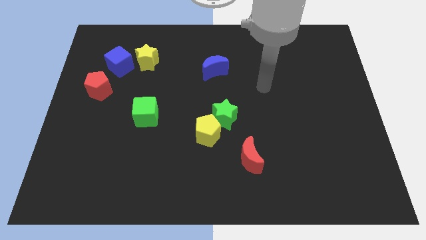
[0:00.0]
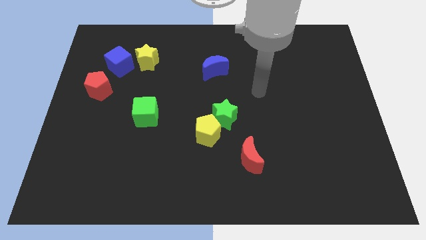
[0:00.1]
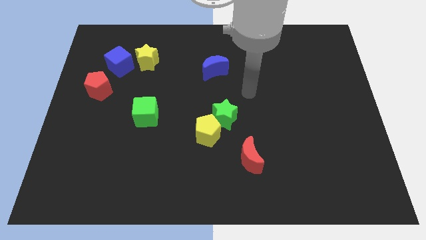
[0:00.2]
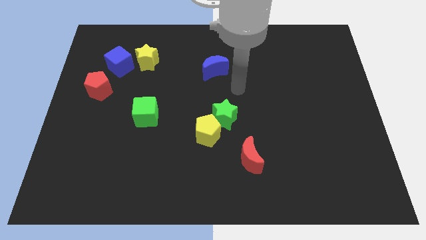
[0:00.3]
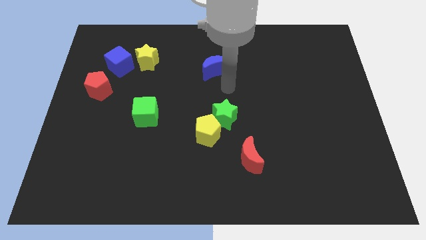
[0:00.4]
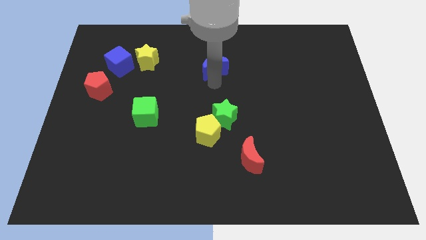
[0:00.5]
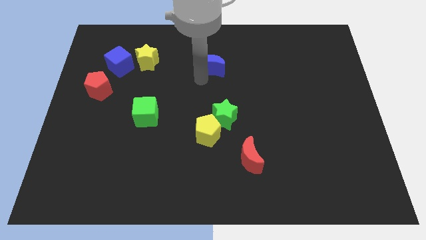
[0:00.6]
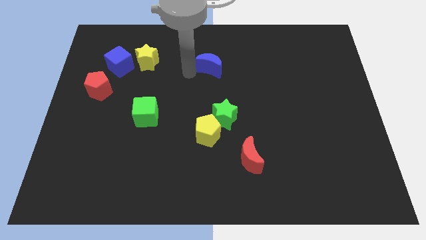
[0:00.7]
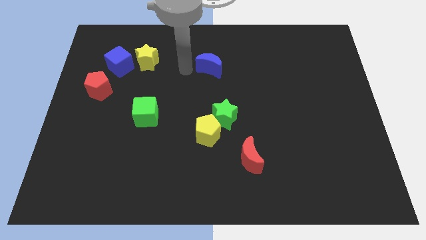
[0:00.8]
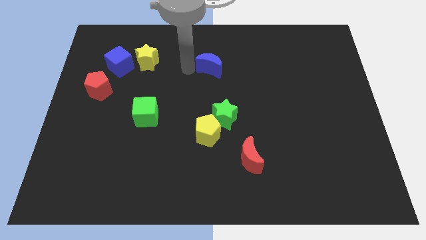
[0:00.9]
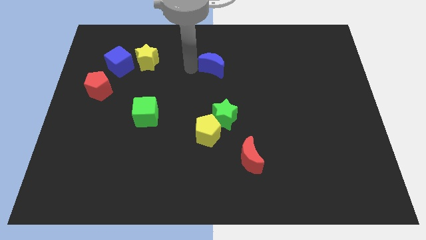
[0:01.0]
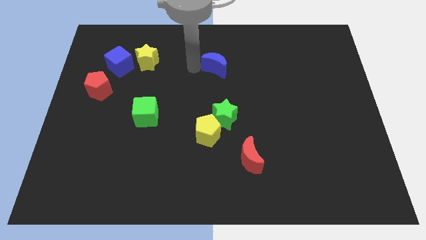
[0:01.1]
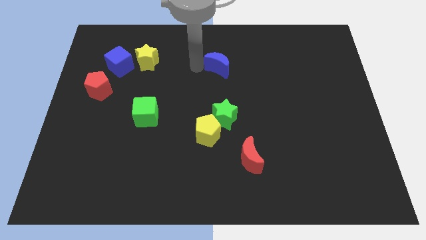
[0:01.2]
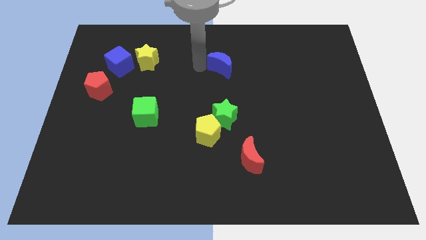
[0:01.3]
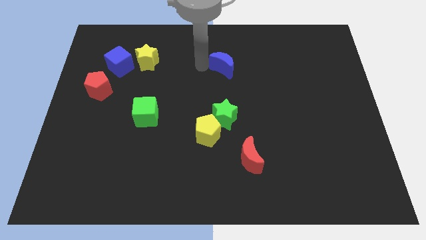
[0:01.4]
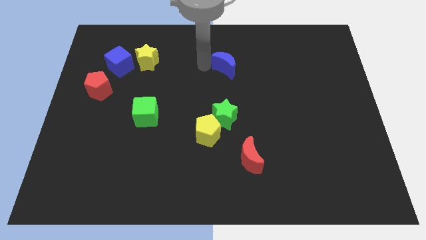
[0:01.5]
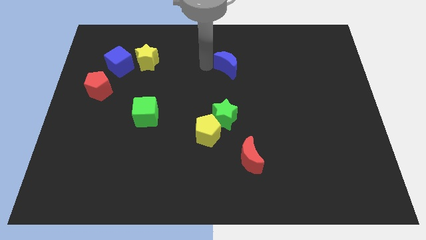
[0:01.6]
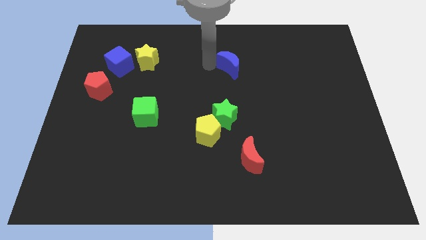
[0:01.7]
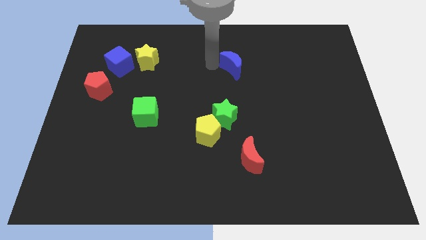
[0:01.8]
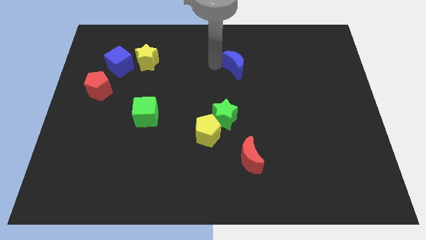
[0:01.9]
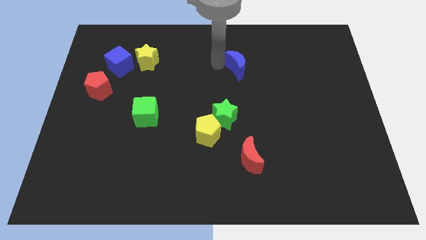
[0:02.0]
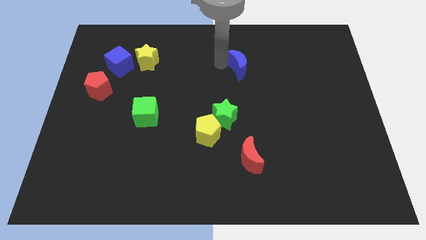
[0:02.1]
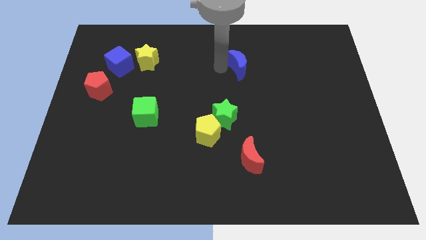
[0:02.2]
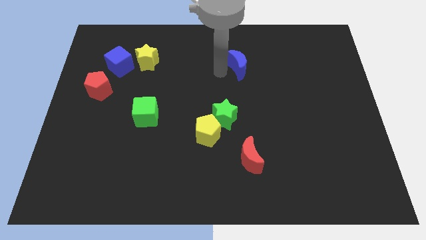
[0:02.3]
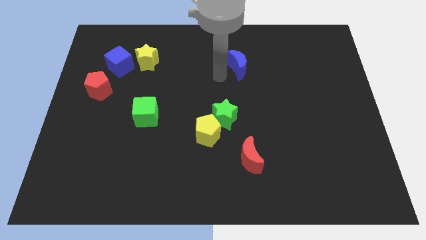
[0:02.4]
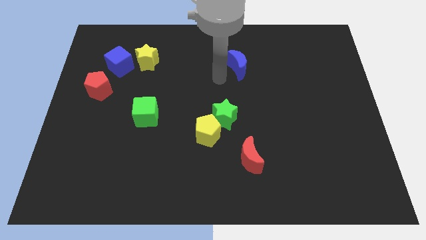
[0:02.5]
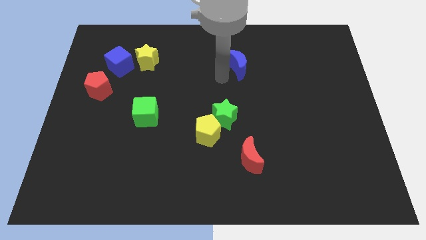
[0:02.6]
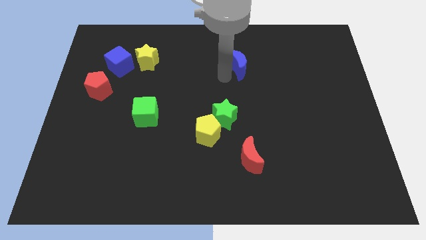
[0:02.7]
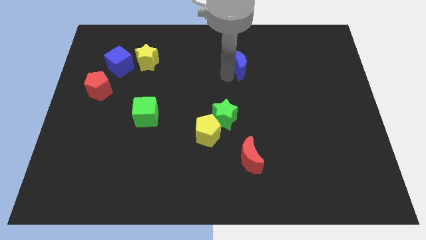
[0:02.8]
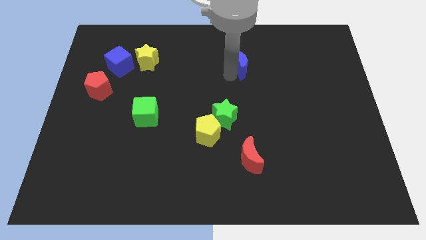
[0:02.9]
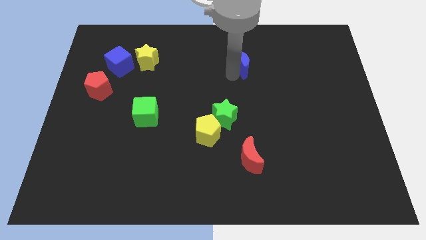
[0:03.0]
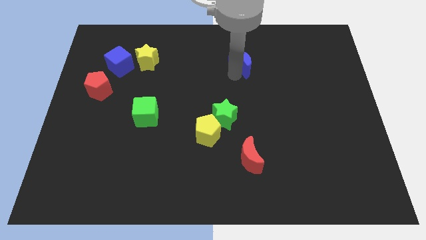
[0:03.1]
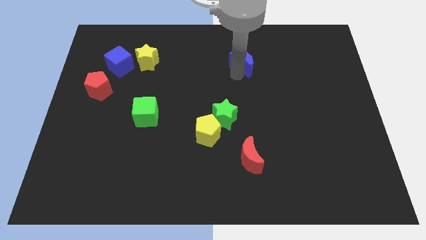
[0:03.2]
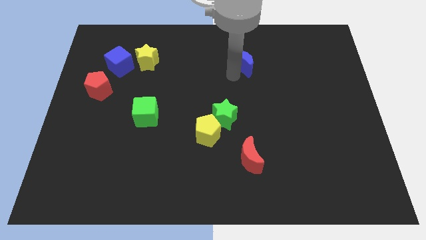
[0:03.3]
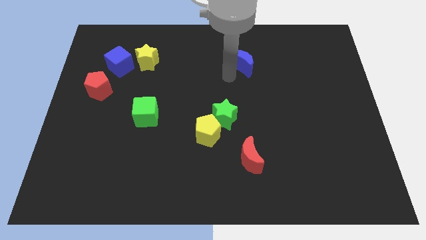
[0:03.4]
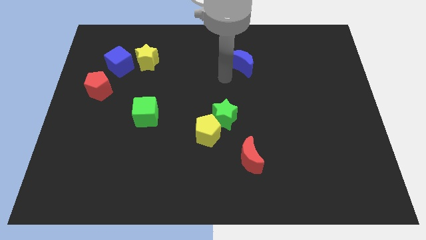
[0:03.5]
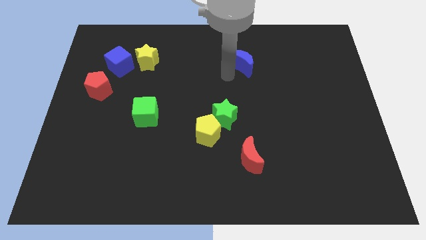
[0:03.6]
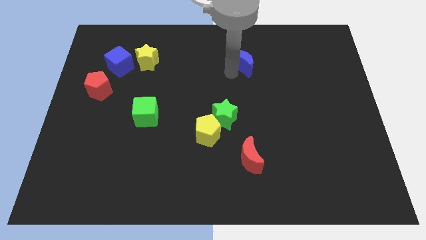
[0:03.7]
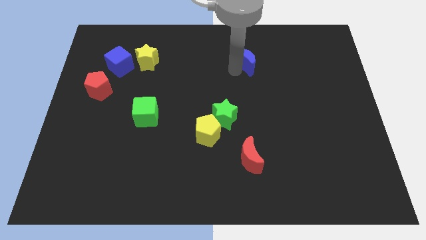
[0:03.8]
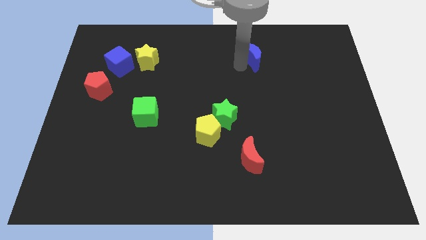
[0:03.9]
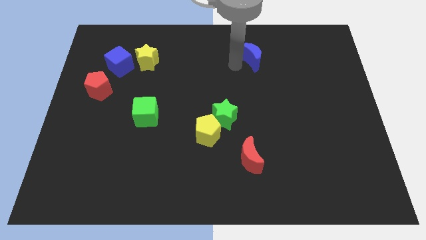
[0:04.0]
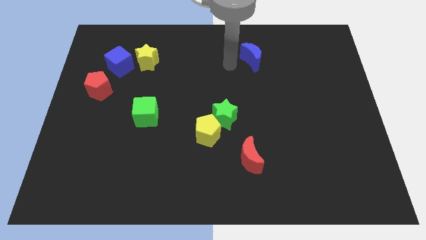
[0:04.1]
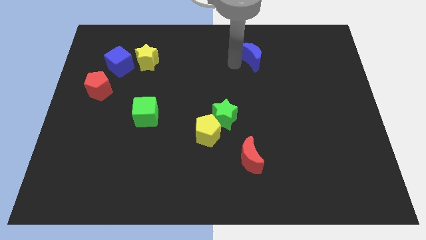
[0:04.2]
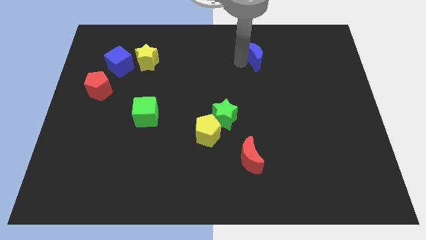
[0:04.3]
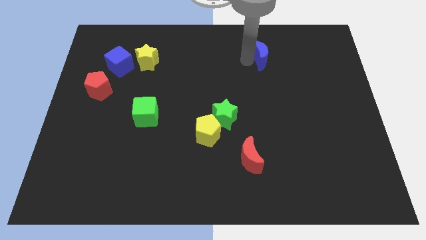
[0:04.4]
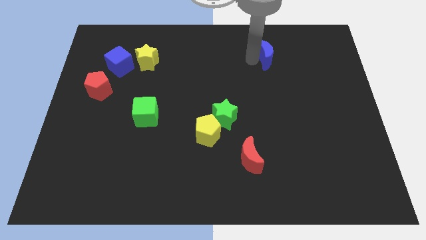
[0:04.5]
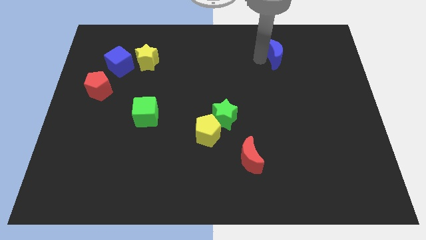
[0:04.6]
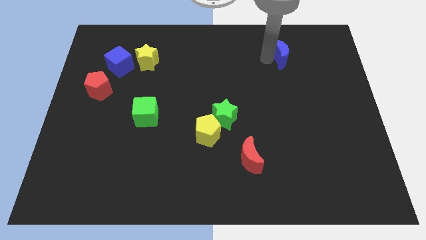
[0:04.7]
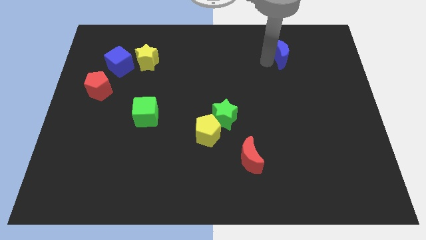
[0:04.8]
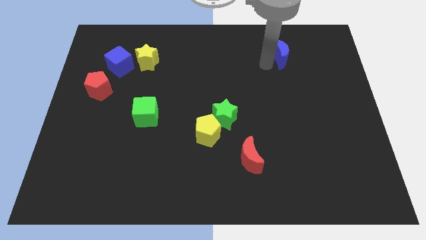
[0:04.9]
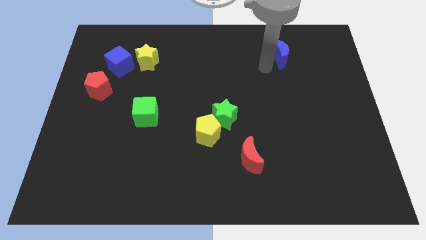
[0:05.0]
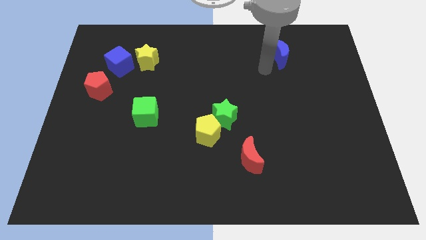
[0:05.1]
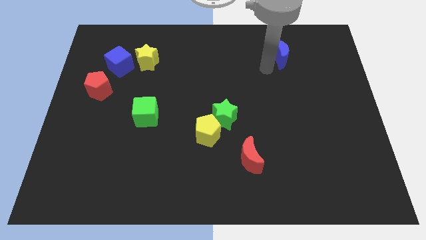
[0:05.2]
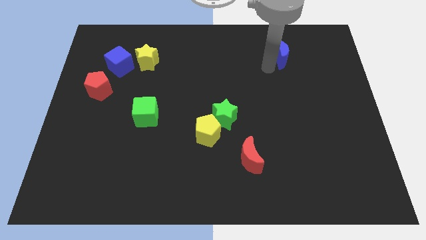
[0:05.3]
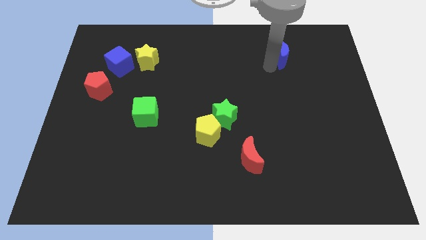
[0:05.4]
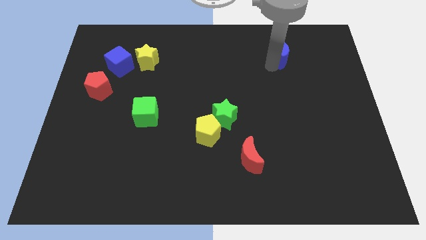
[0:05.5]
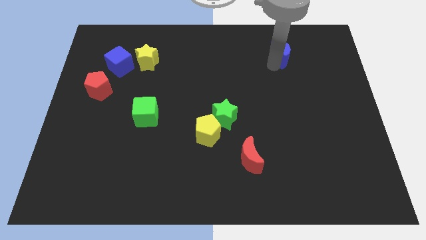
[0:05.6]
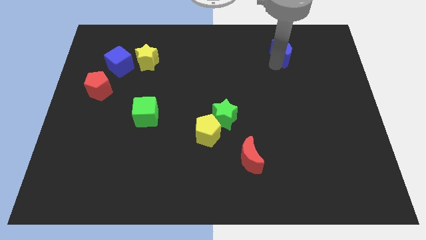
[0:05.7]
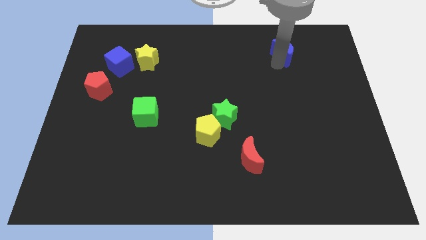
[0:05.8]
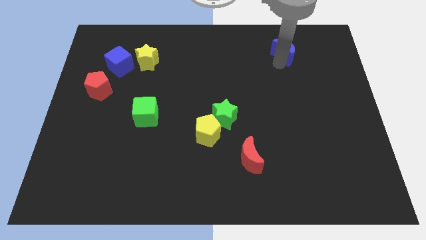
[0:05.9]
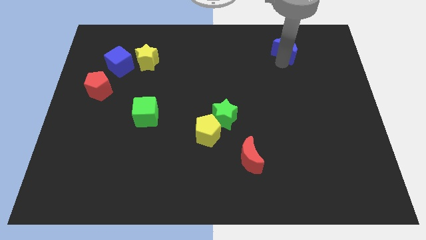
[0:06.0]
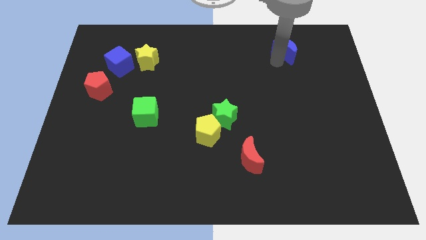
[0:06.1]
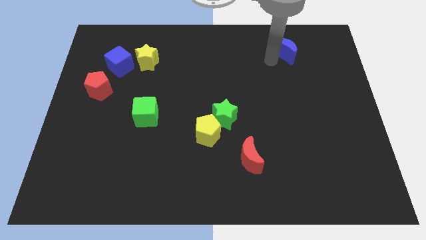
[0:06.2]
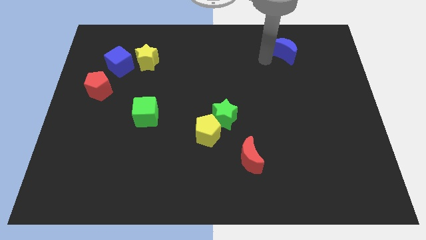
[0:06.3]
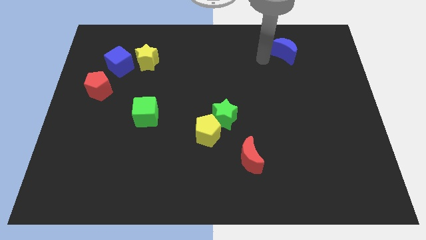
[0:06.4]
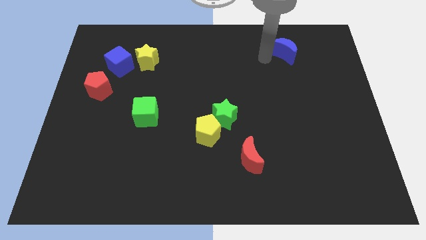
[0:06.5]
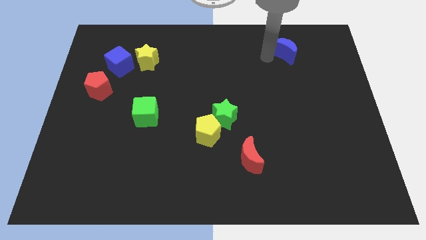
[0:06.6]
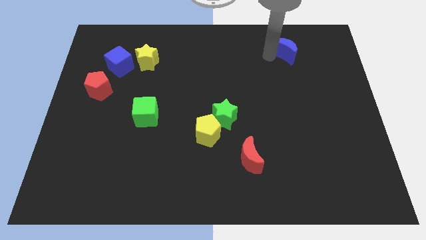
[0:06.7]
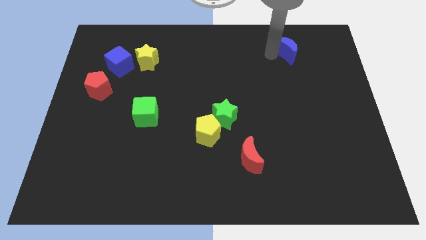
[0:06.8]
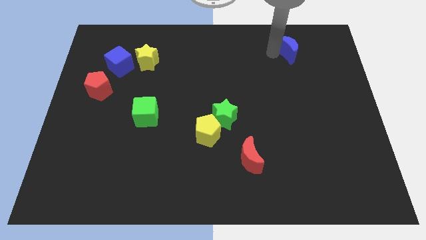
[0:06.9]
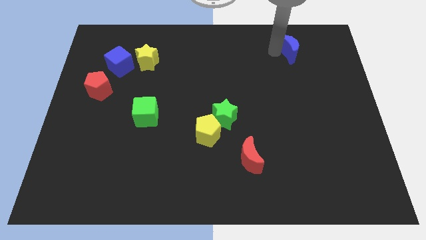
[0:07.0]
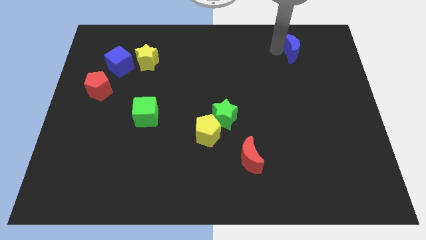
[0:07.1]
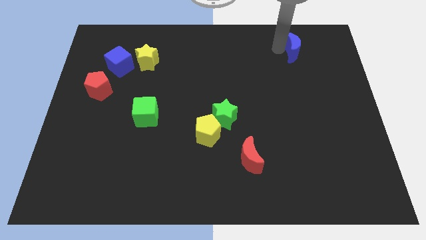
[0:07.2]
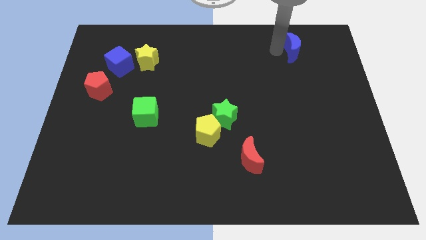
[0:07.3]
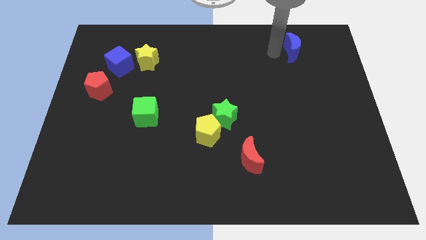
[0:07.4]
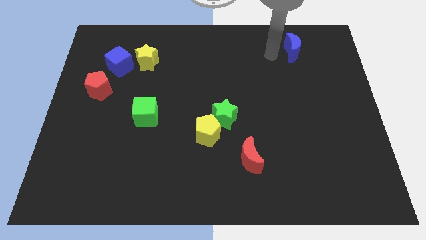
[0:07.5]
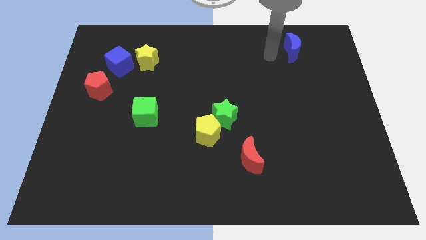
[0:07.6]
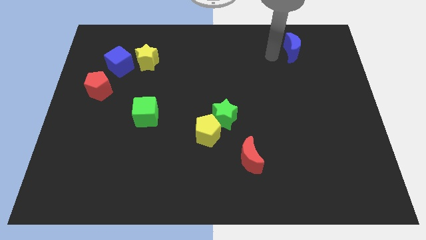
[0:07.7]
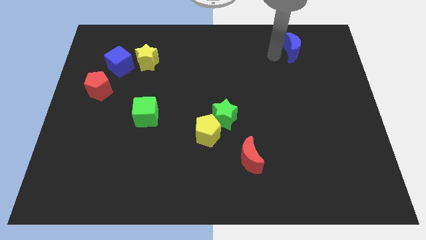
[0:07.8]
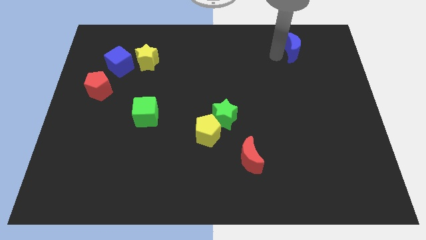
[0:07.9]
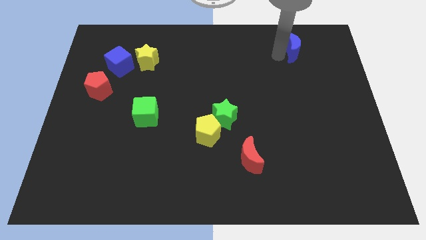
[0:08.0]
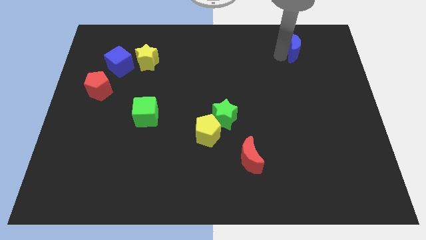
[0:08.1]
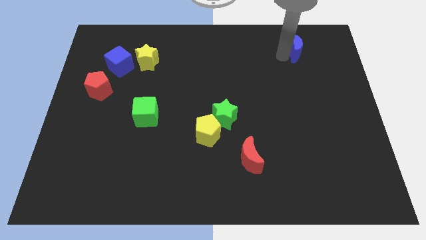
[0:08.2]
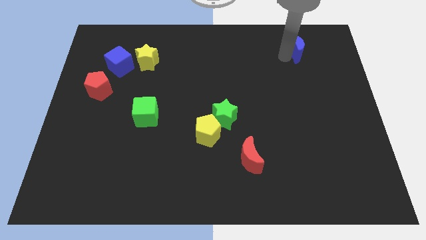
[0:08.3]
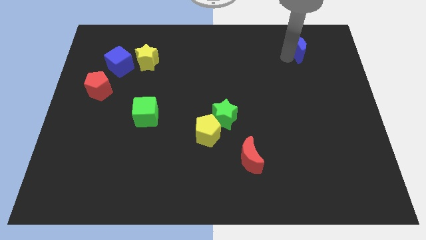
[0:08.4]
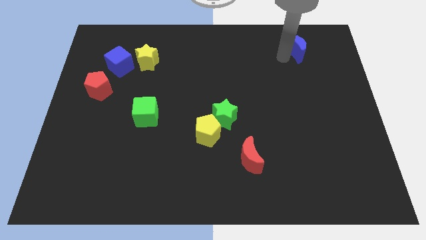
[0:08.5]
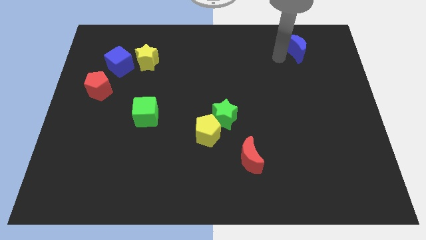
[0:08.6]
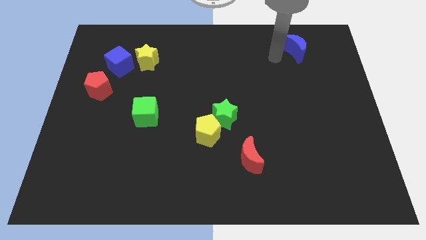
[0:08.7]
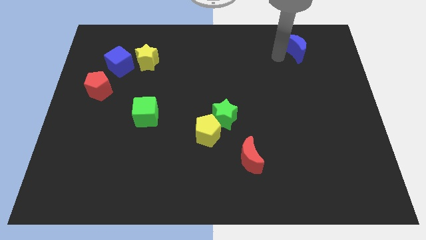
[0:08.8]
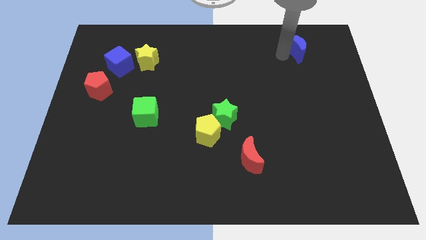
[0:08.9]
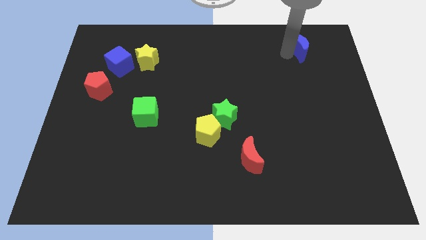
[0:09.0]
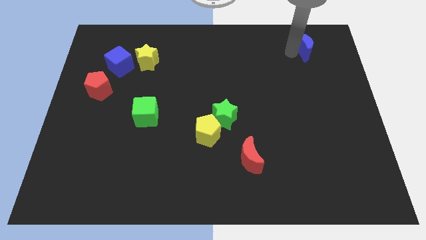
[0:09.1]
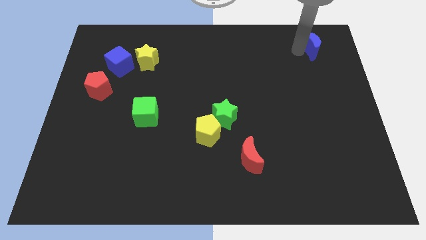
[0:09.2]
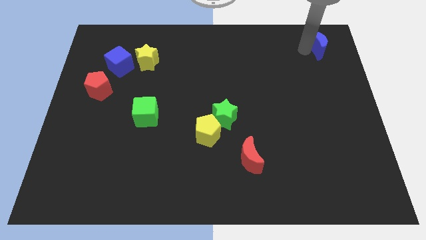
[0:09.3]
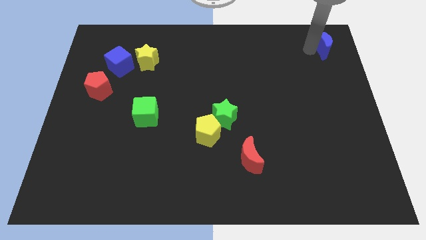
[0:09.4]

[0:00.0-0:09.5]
move the blue moon to the top right
